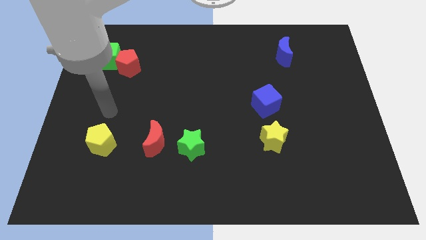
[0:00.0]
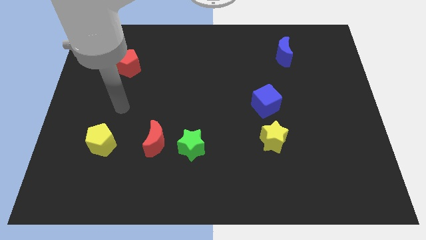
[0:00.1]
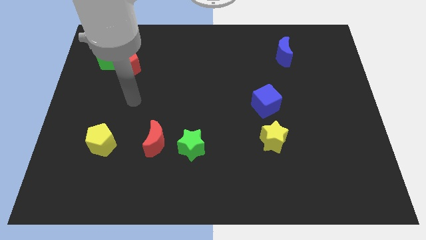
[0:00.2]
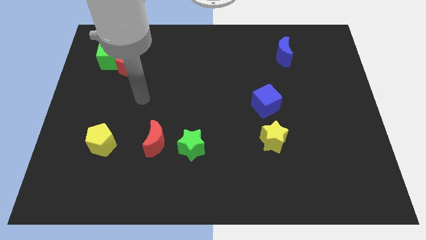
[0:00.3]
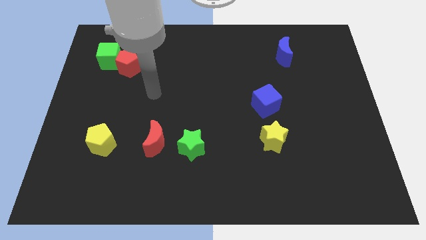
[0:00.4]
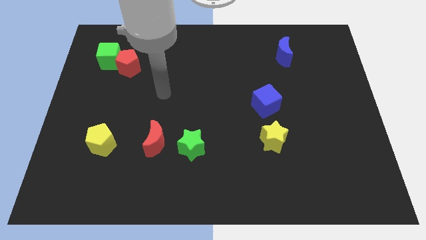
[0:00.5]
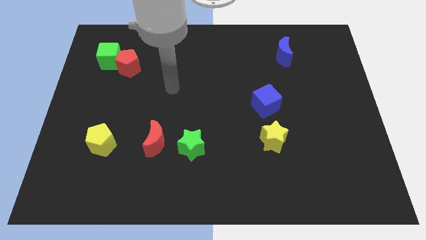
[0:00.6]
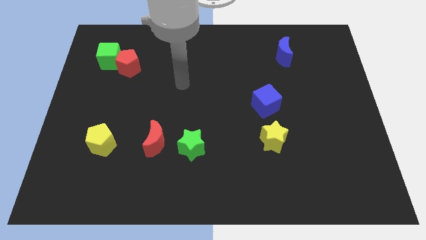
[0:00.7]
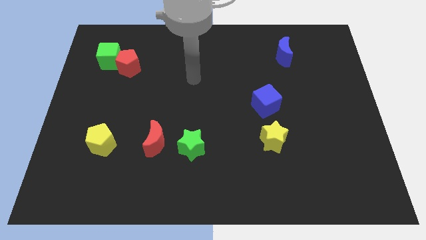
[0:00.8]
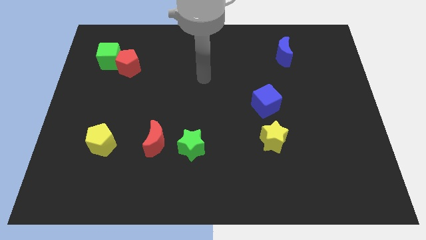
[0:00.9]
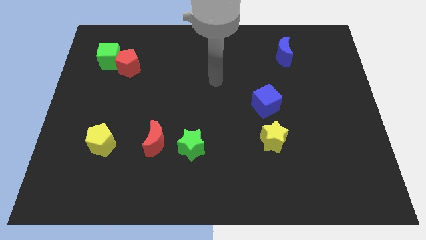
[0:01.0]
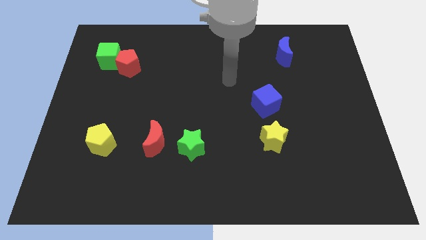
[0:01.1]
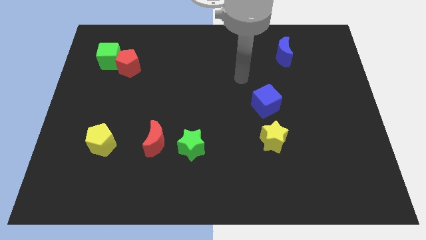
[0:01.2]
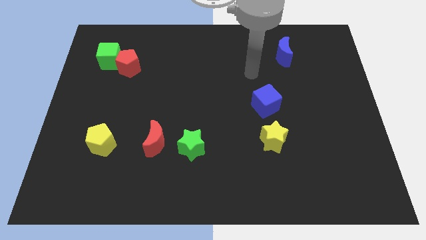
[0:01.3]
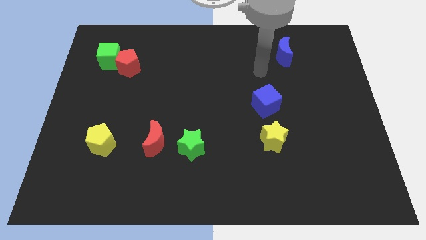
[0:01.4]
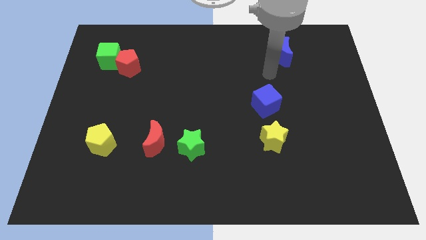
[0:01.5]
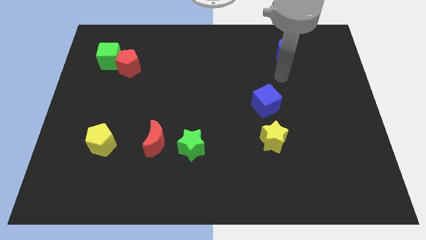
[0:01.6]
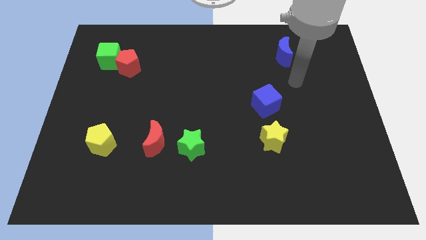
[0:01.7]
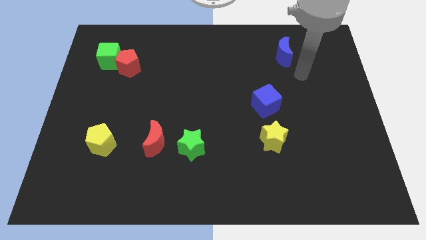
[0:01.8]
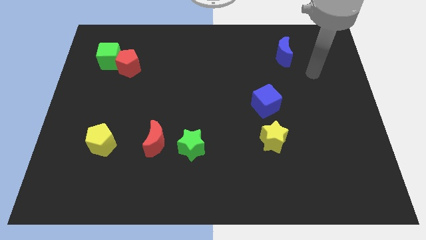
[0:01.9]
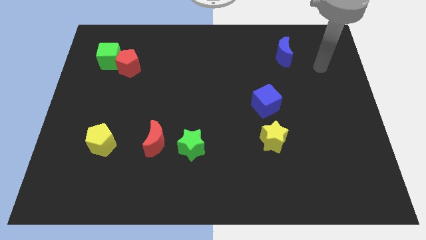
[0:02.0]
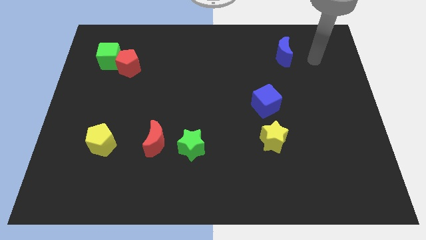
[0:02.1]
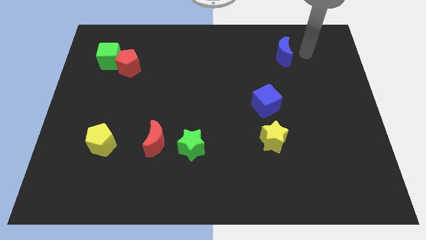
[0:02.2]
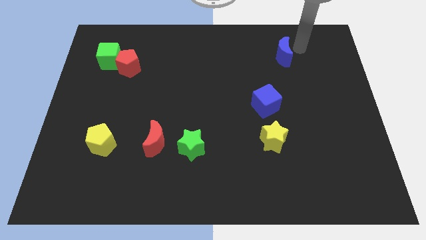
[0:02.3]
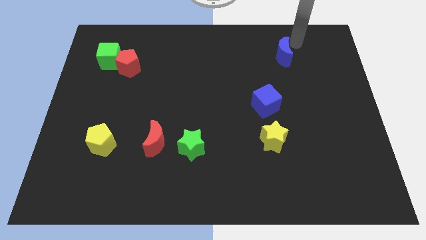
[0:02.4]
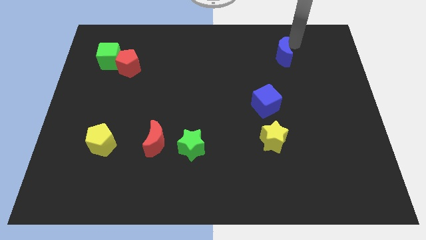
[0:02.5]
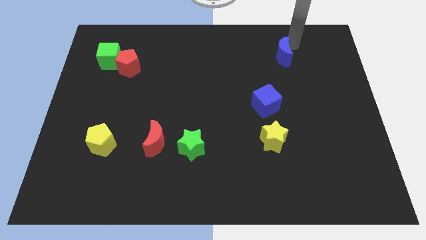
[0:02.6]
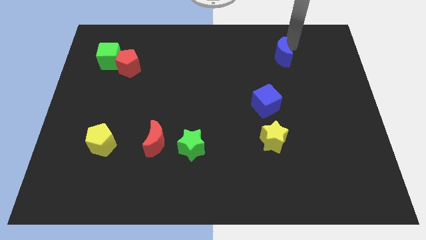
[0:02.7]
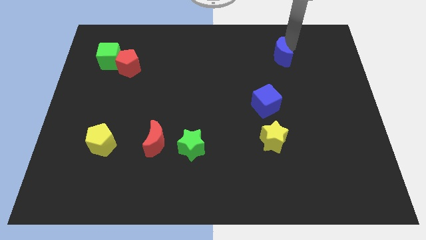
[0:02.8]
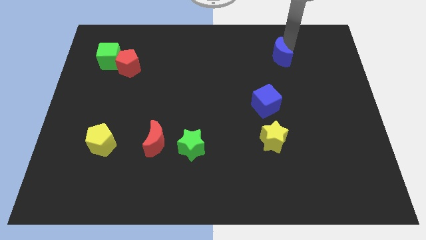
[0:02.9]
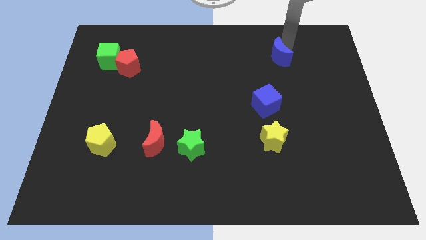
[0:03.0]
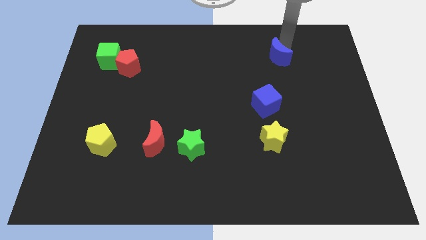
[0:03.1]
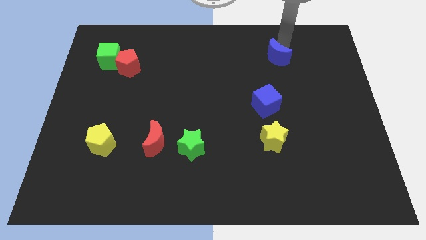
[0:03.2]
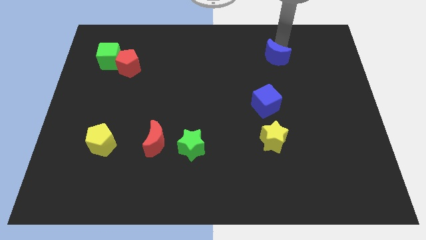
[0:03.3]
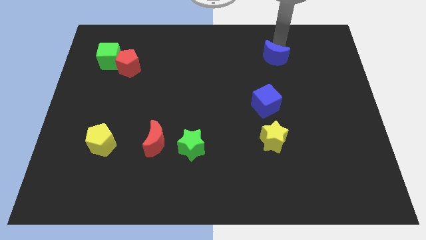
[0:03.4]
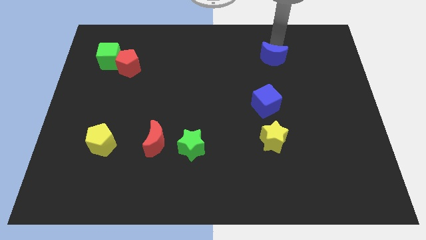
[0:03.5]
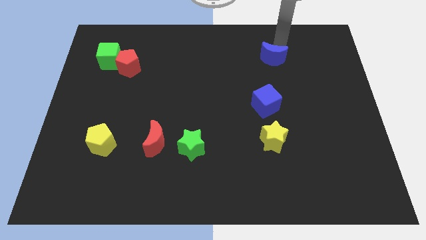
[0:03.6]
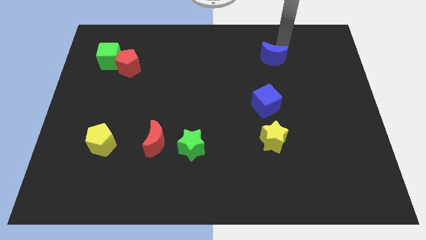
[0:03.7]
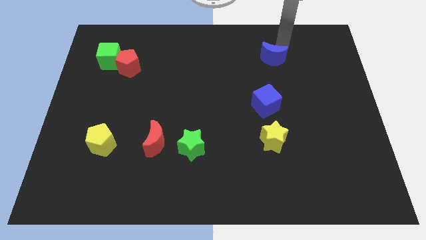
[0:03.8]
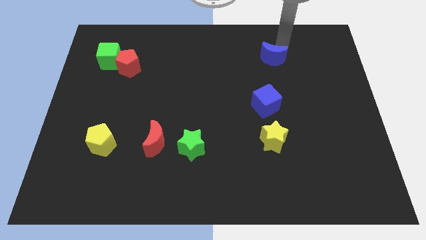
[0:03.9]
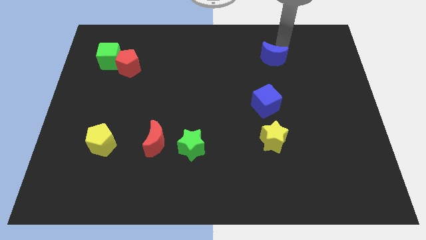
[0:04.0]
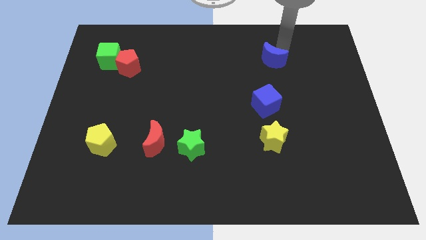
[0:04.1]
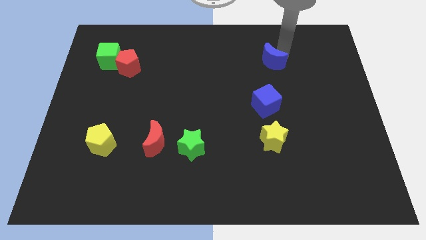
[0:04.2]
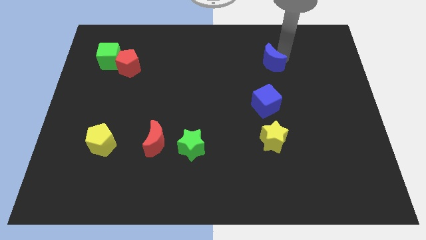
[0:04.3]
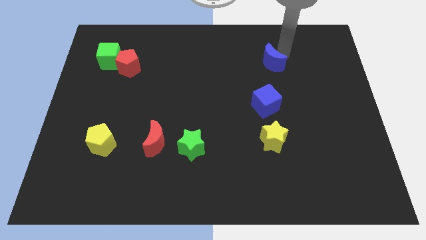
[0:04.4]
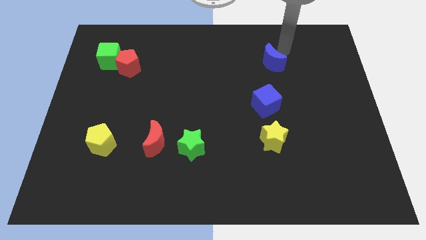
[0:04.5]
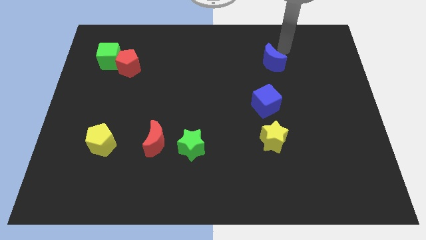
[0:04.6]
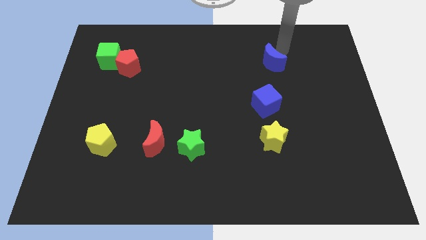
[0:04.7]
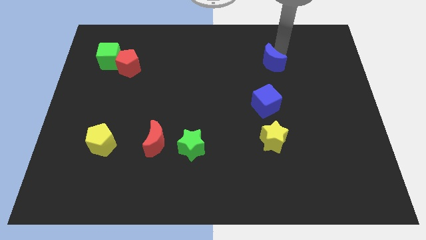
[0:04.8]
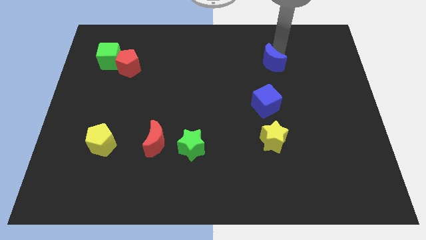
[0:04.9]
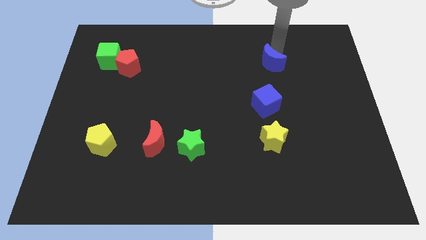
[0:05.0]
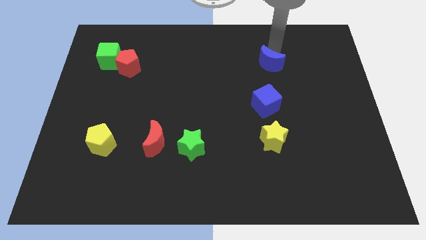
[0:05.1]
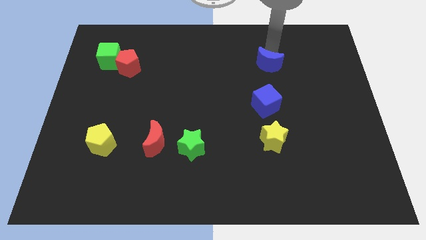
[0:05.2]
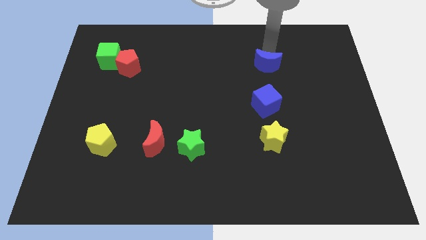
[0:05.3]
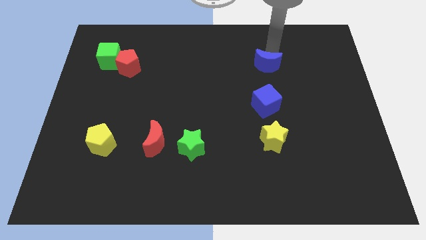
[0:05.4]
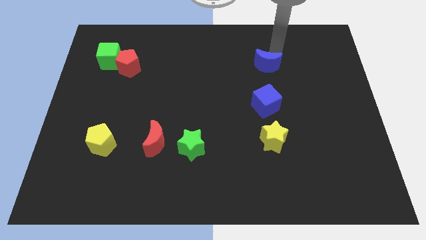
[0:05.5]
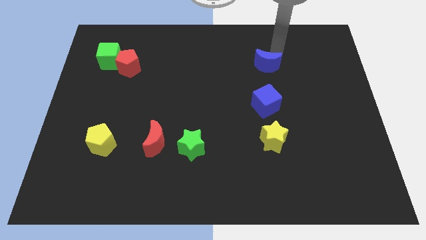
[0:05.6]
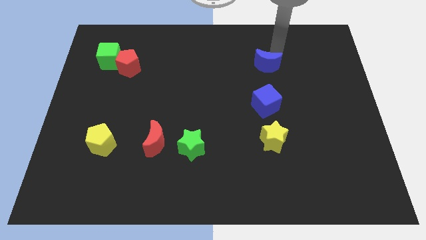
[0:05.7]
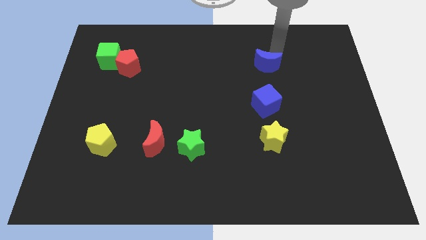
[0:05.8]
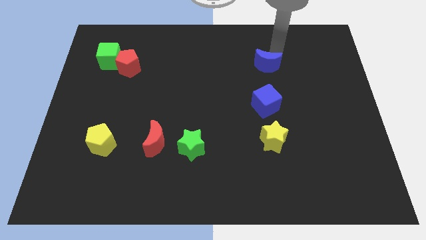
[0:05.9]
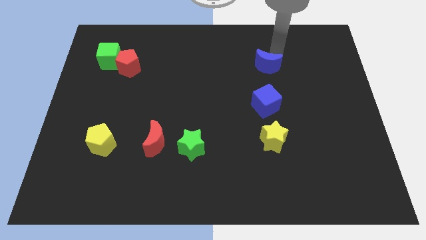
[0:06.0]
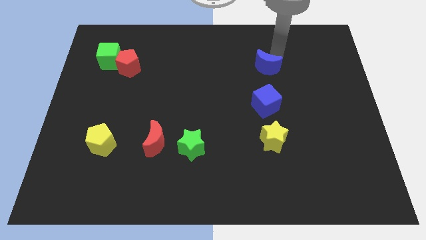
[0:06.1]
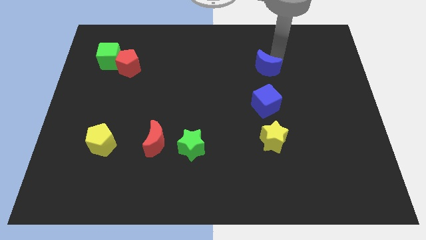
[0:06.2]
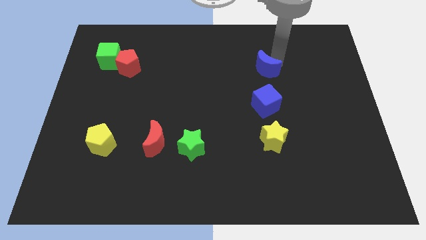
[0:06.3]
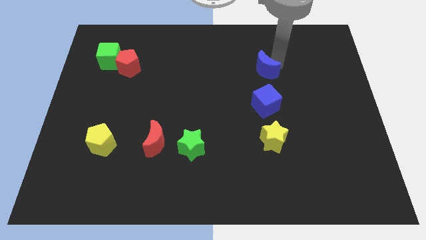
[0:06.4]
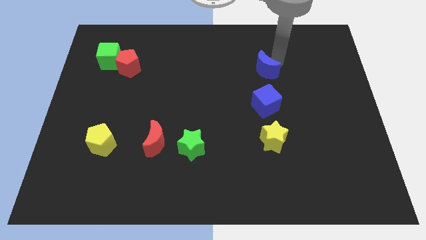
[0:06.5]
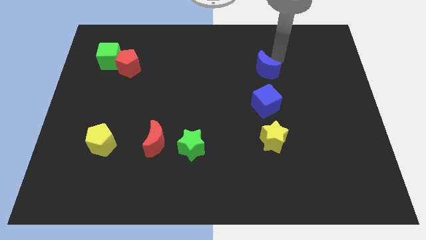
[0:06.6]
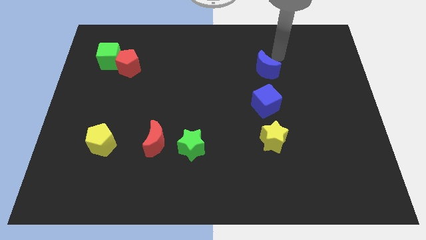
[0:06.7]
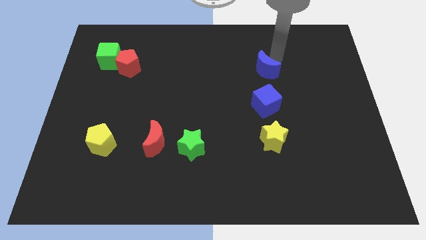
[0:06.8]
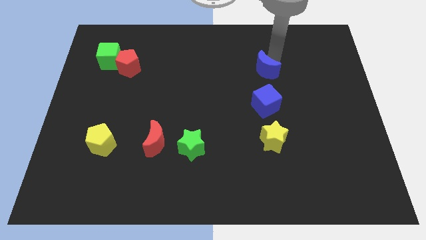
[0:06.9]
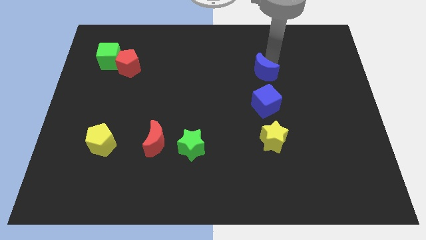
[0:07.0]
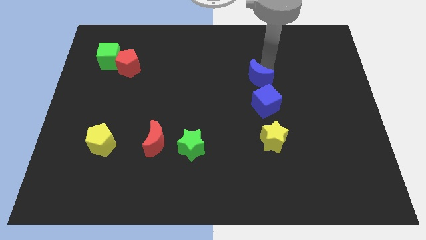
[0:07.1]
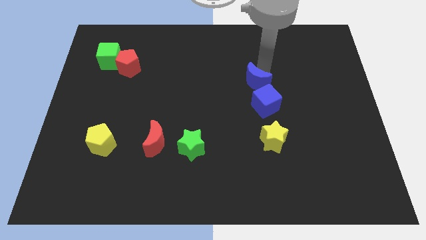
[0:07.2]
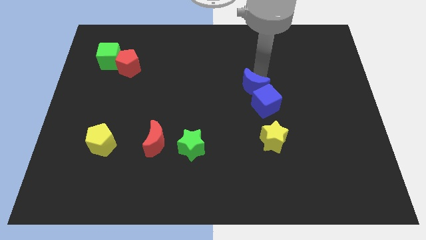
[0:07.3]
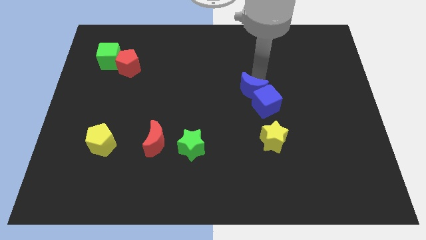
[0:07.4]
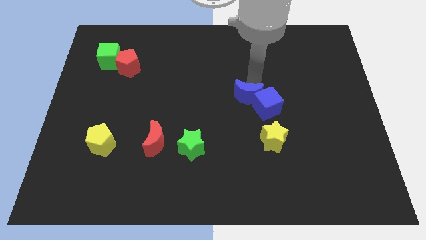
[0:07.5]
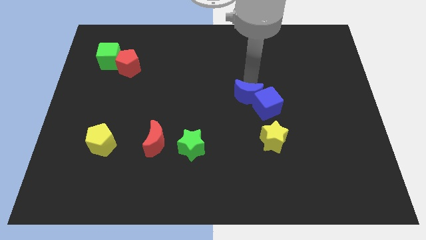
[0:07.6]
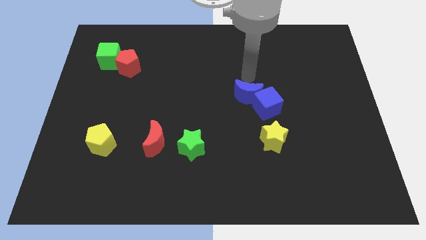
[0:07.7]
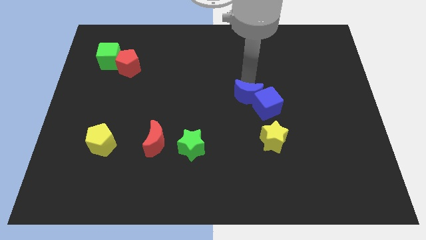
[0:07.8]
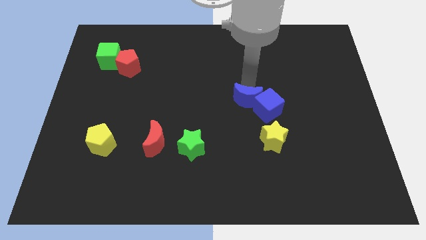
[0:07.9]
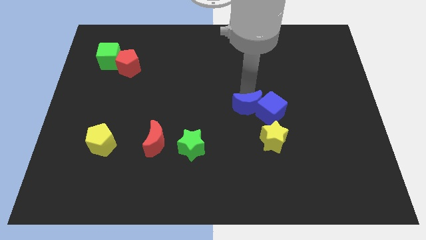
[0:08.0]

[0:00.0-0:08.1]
slide the blue moon to the bottom left side of the blue cube
